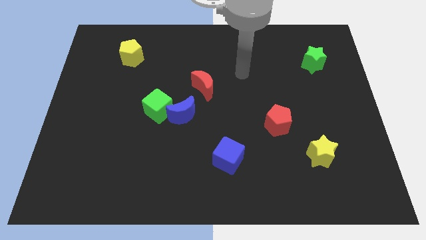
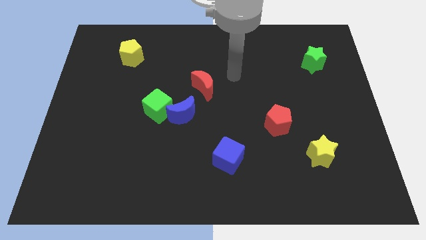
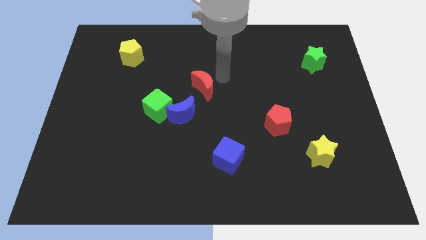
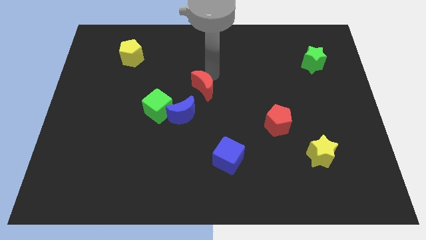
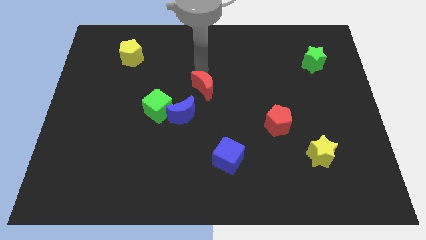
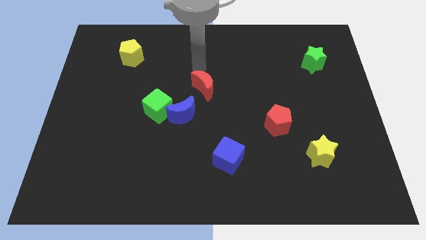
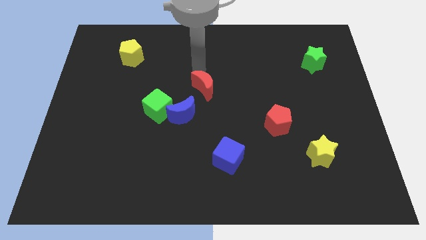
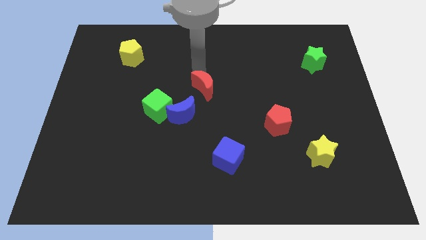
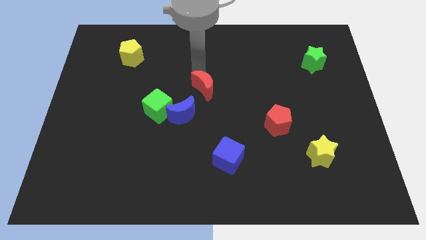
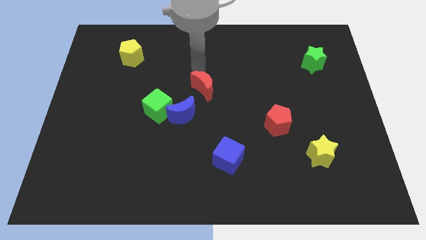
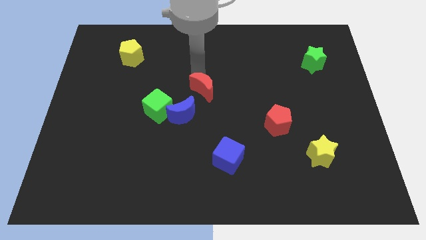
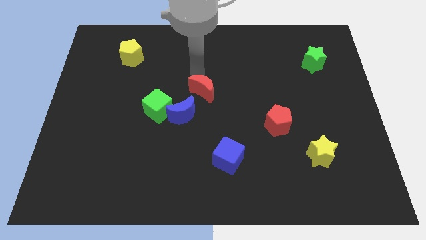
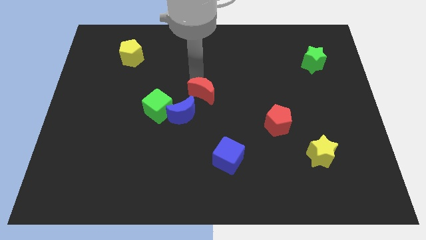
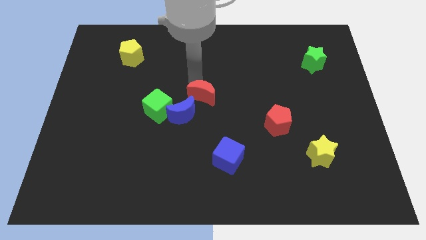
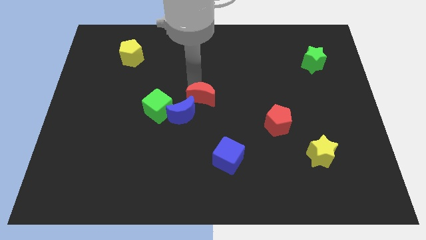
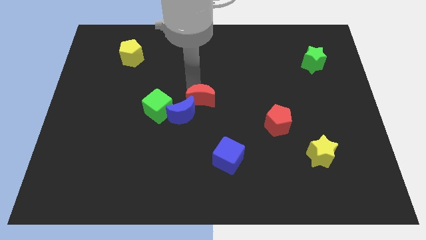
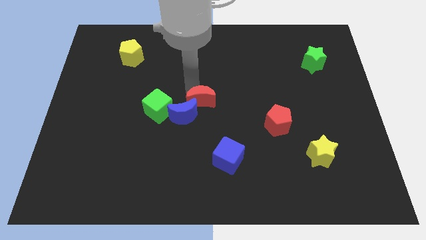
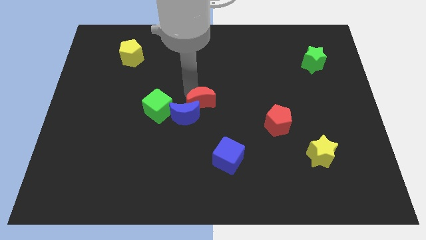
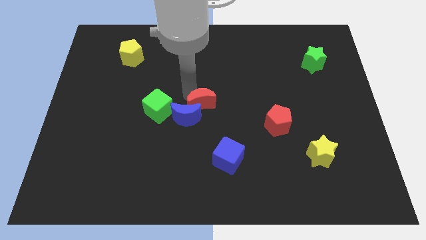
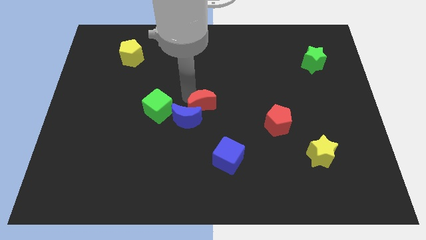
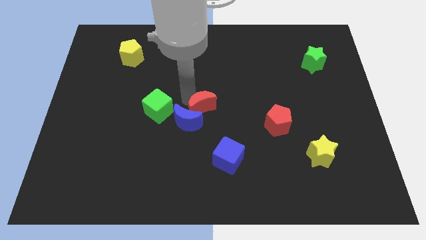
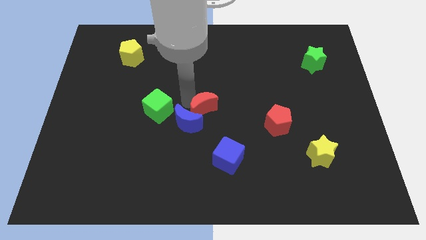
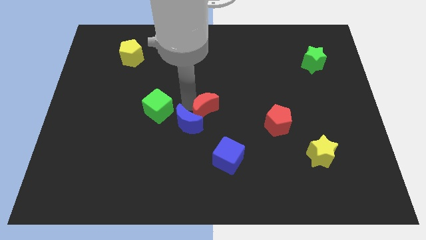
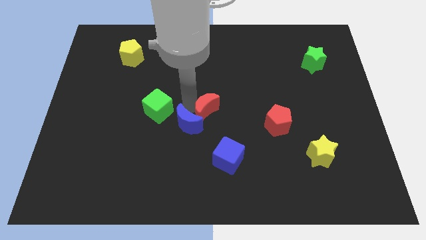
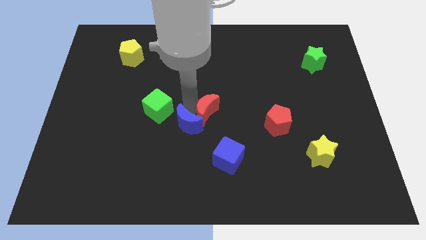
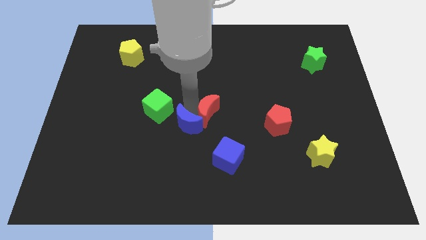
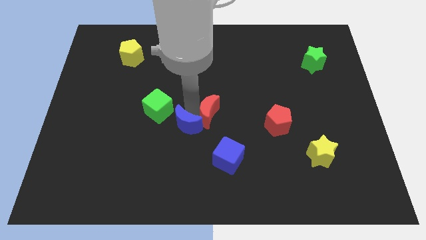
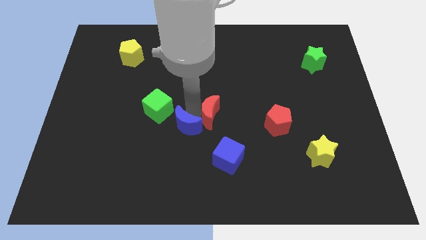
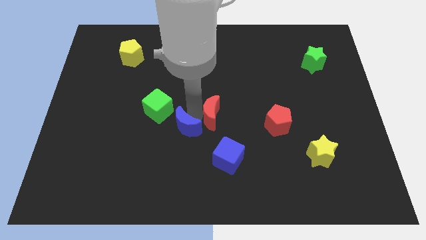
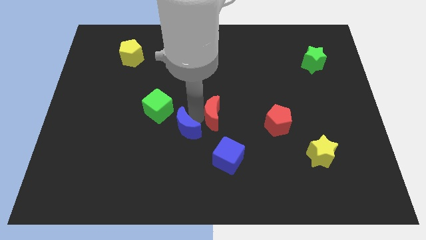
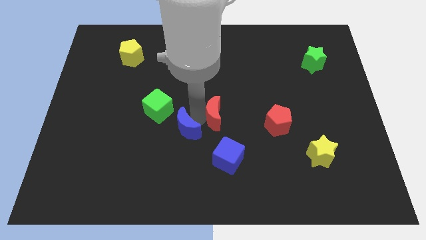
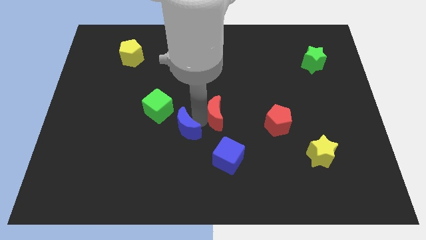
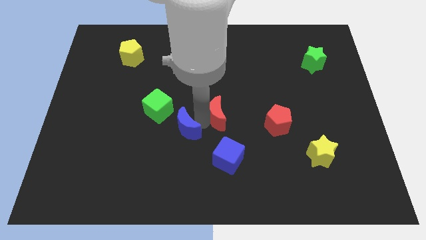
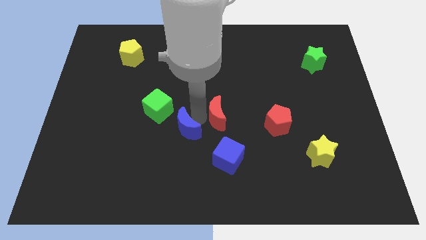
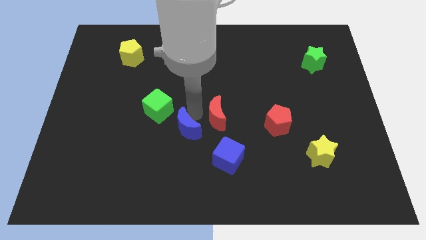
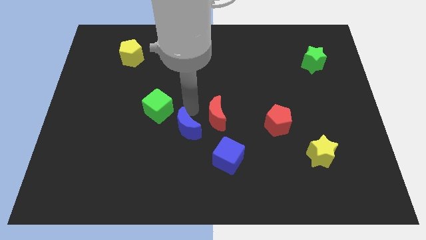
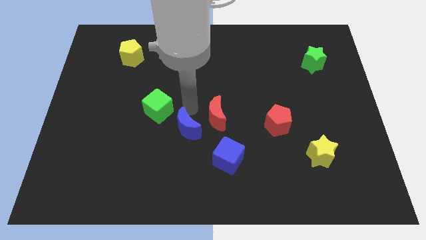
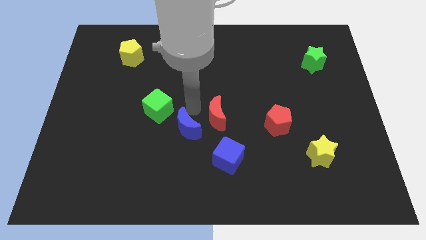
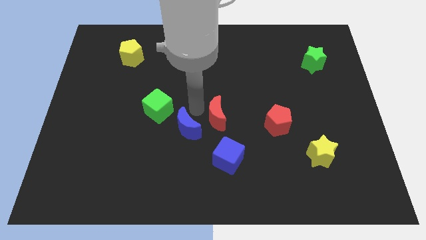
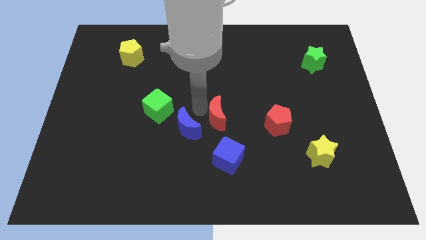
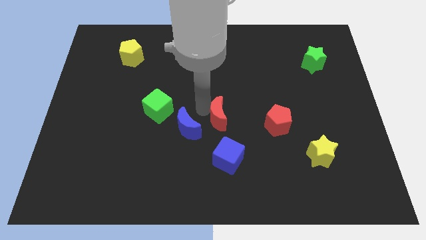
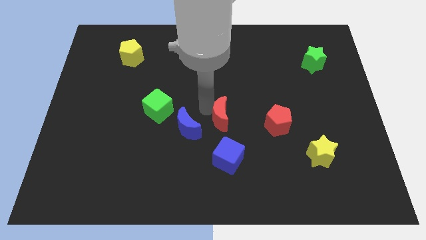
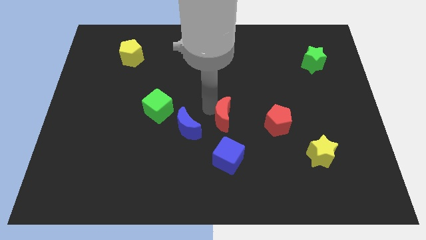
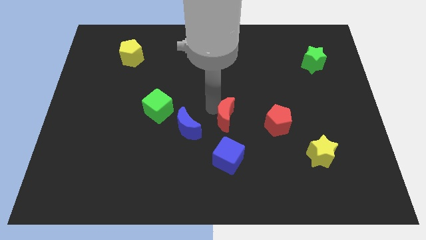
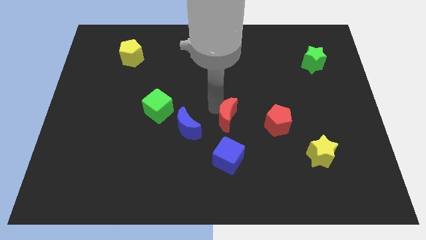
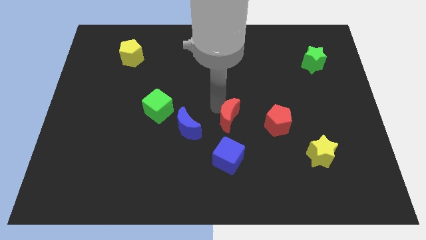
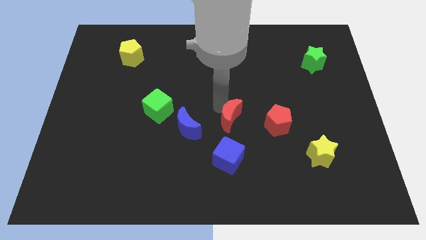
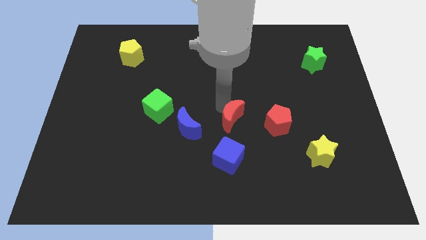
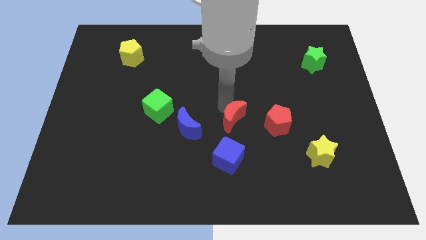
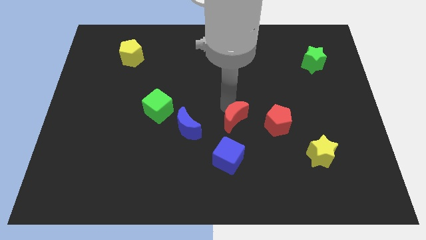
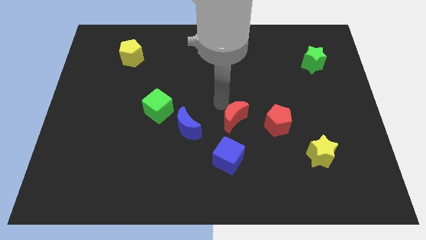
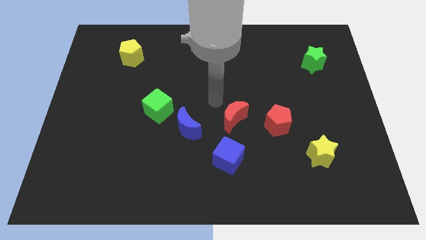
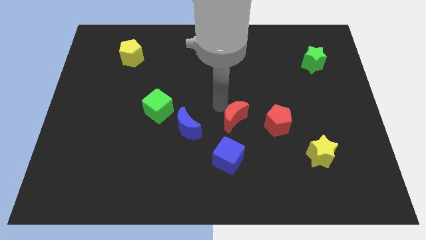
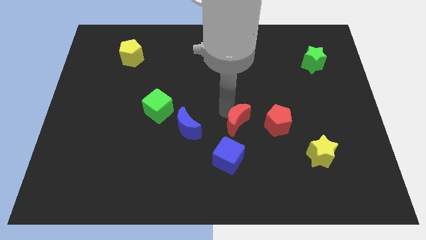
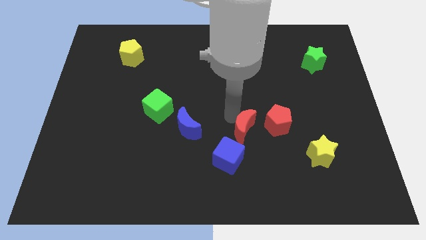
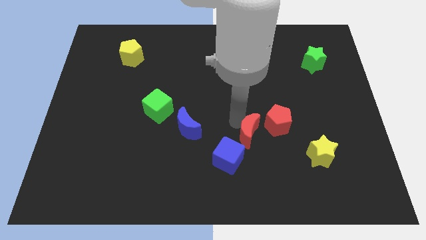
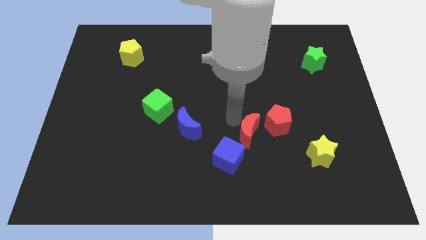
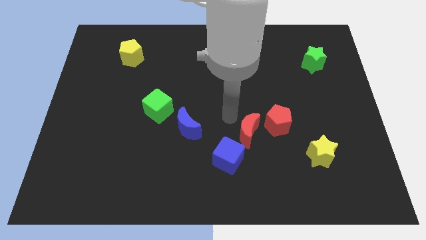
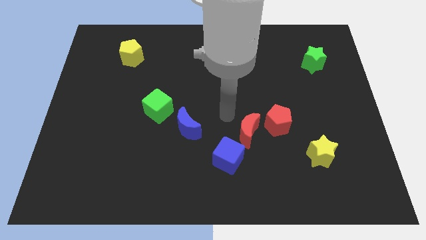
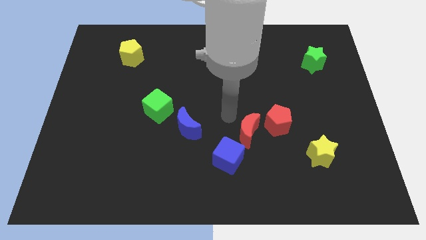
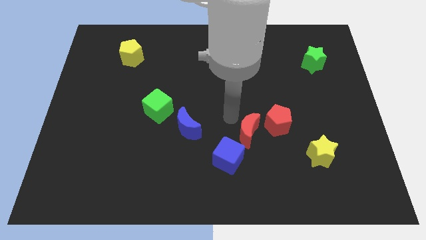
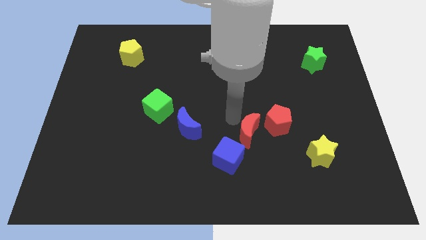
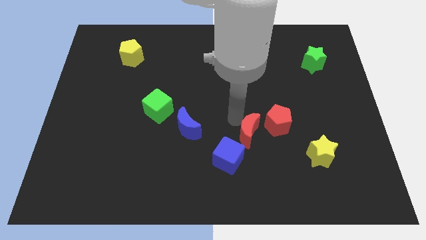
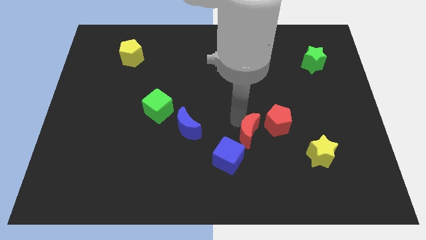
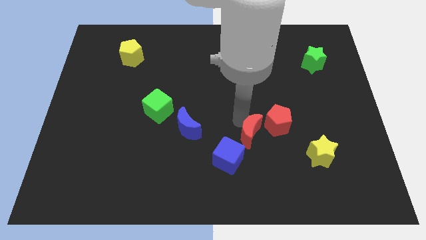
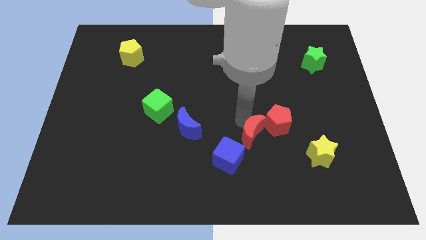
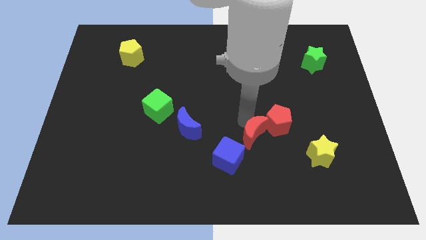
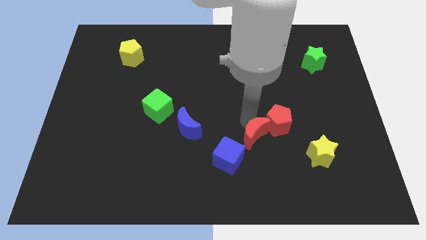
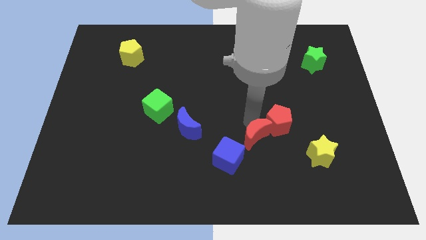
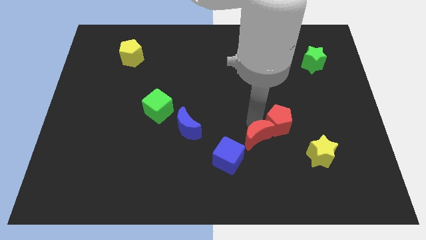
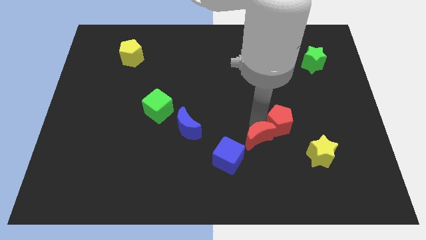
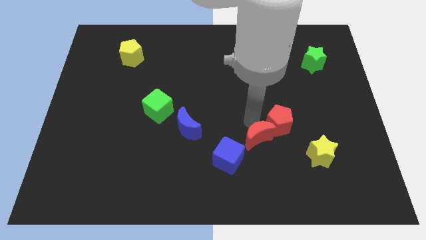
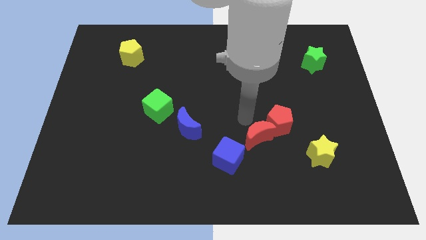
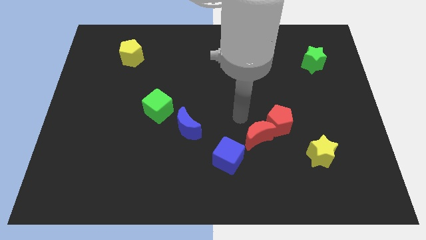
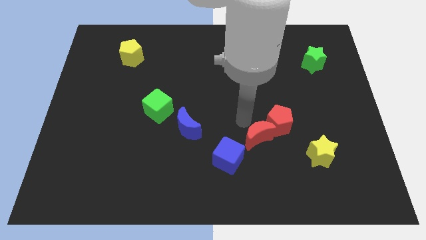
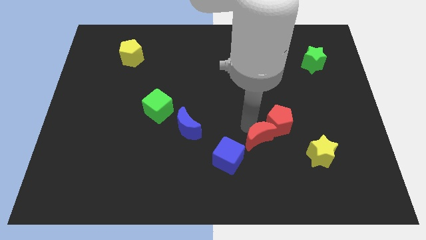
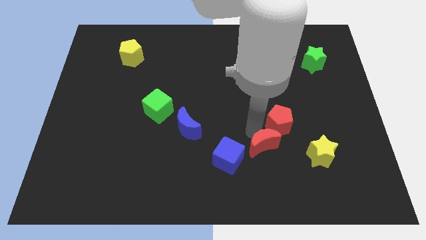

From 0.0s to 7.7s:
slide the red moon to the right of the blue cube
